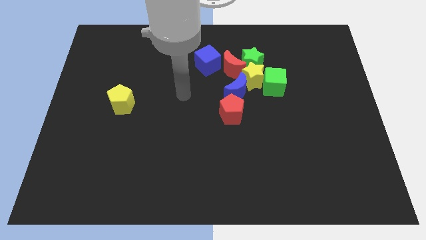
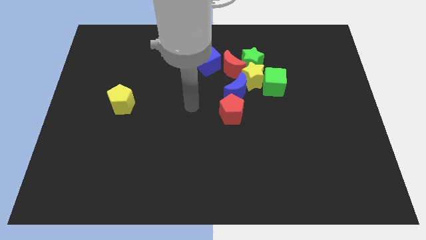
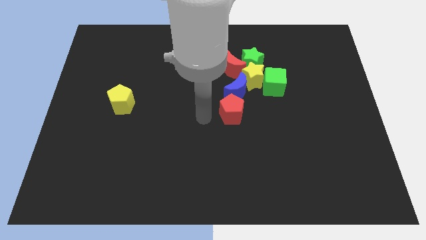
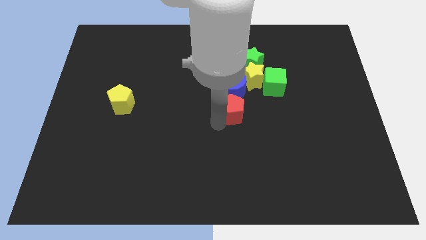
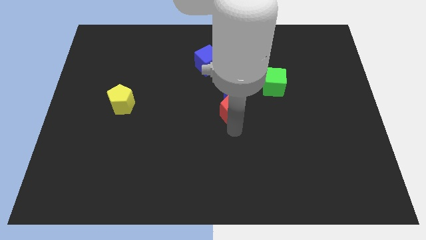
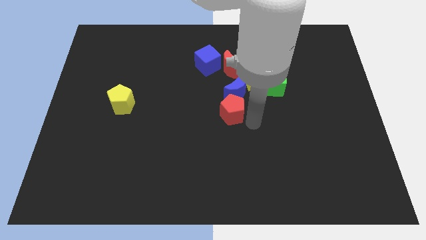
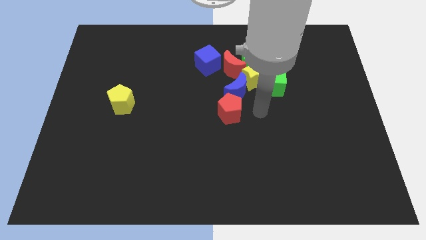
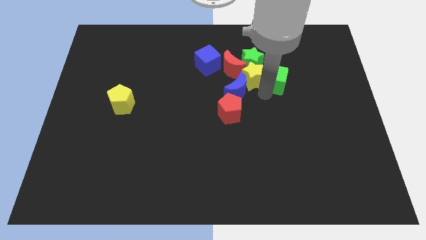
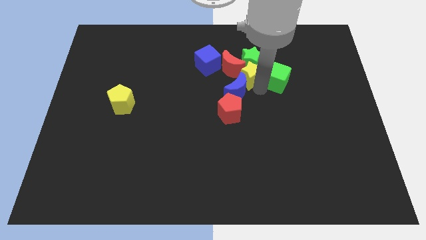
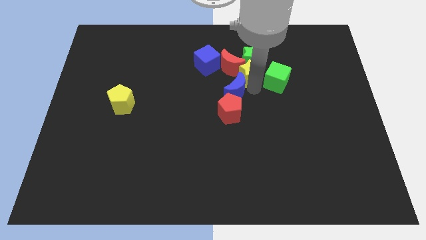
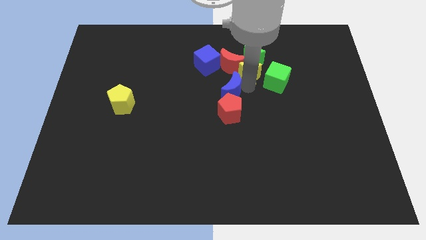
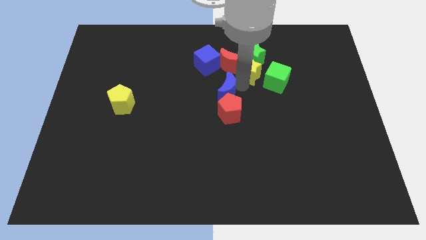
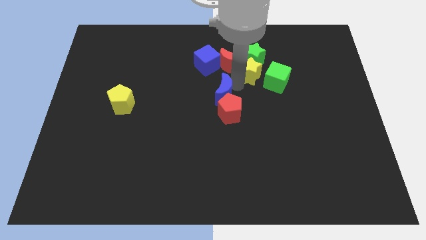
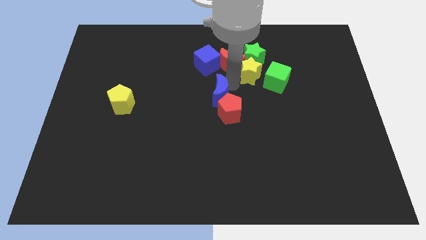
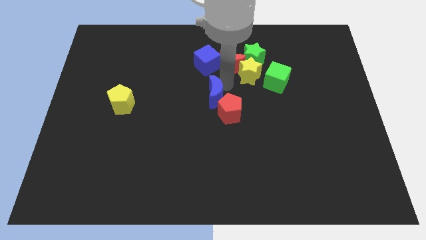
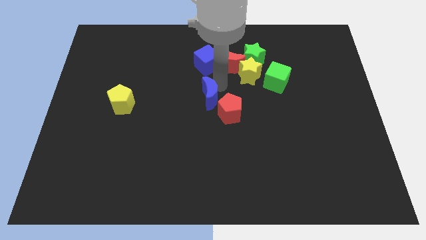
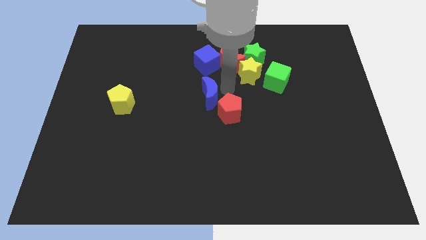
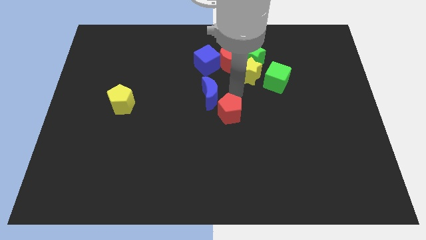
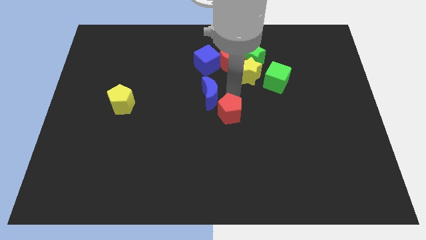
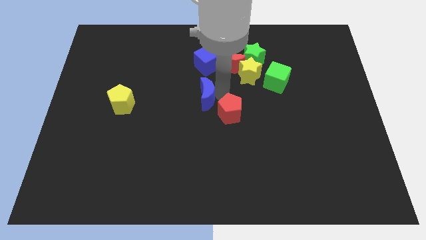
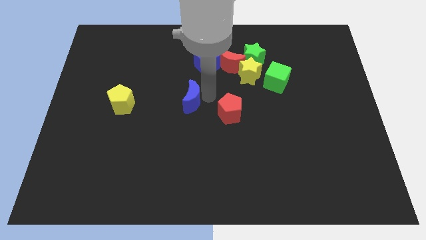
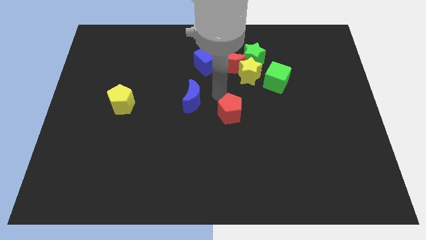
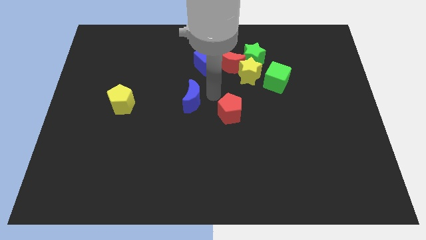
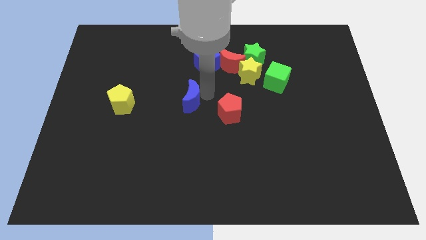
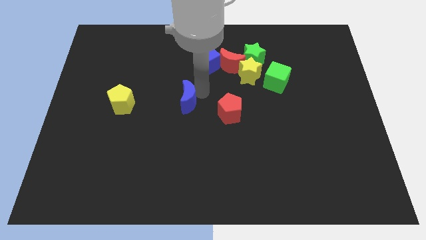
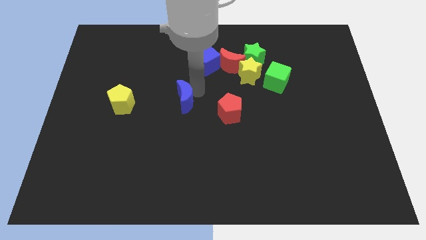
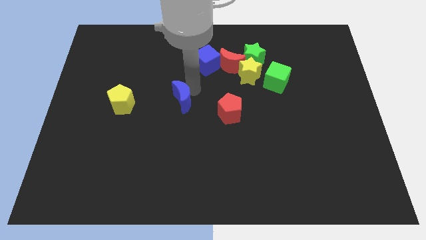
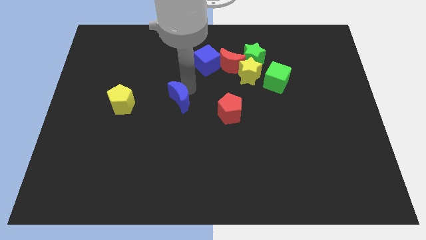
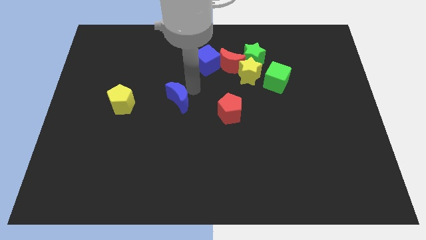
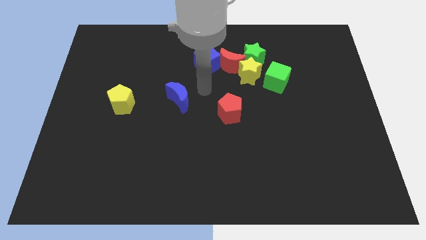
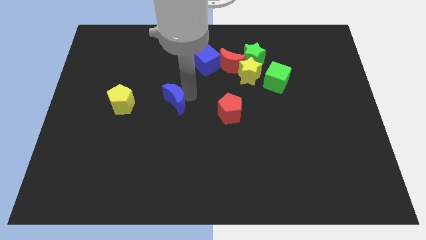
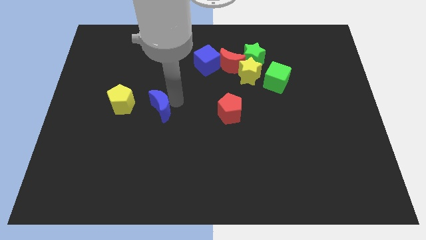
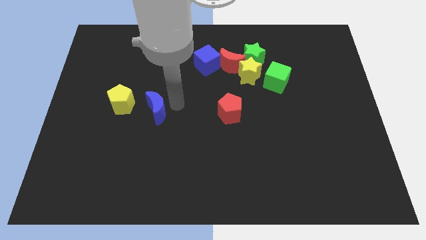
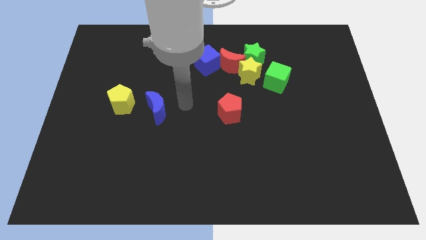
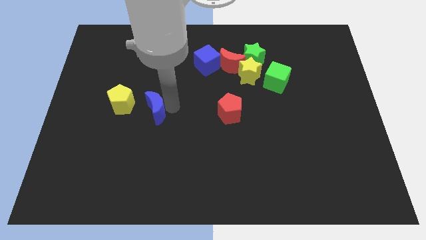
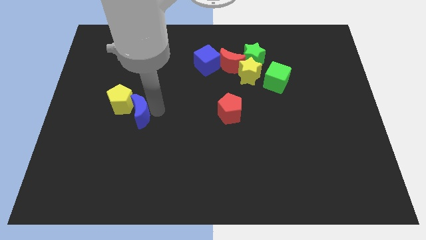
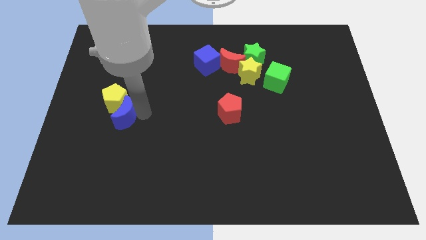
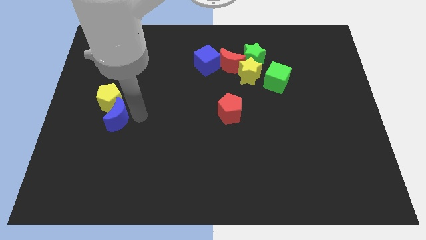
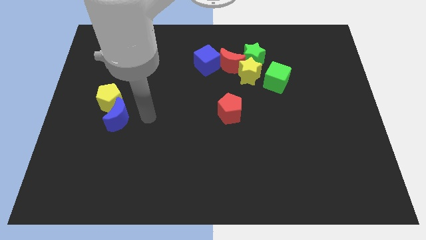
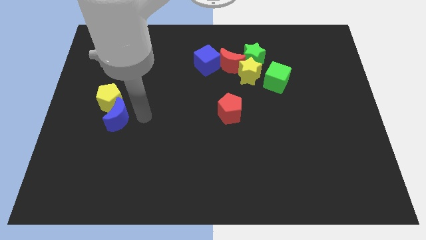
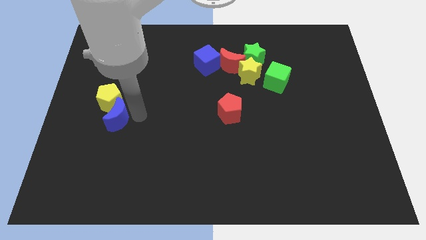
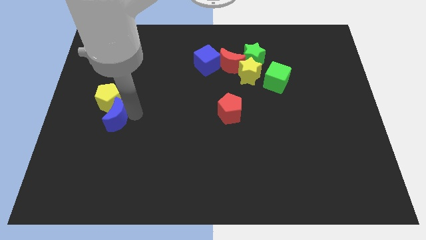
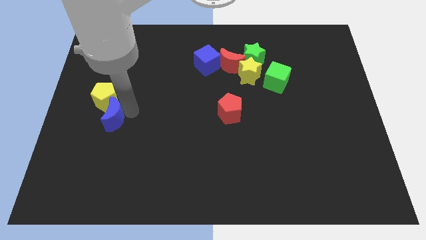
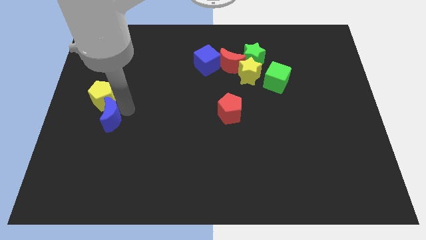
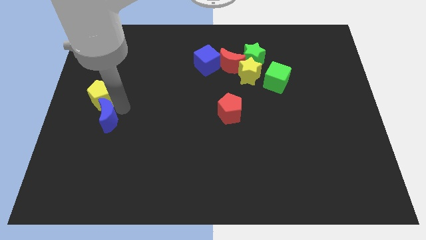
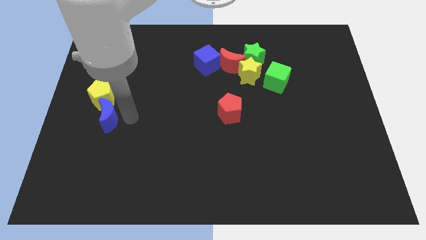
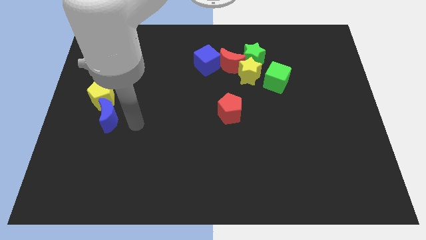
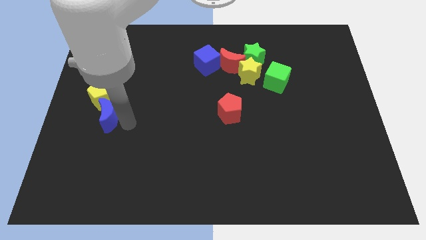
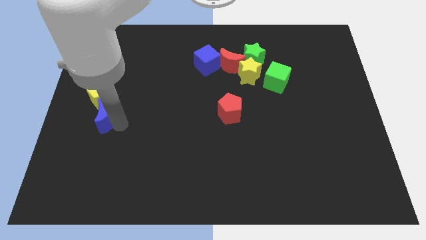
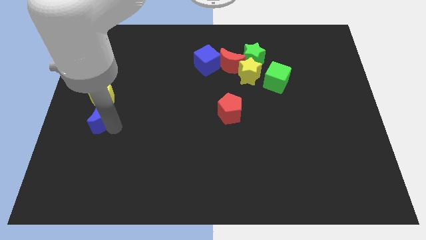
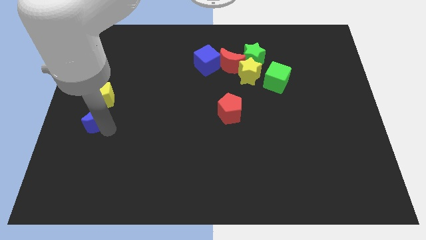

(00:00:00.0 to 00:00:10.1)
put the blue moon to the left side of the board
